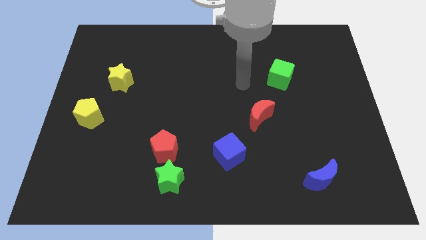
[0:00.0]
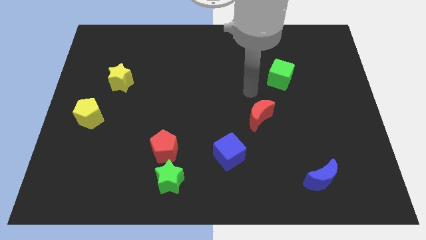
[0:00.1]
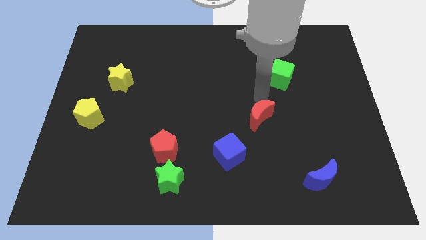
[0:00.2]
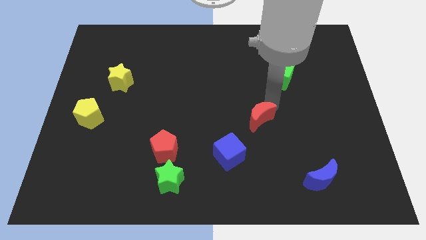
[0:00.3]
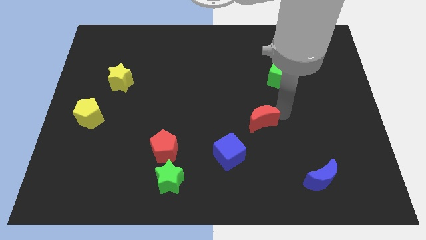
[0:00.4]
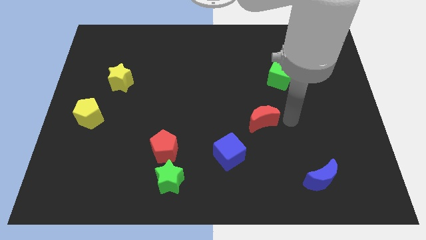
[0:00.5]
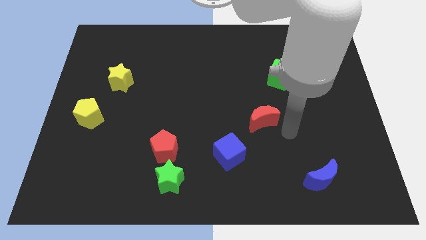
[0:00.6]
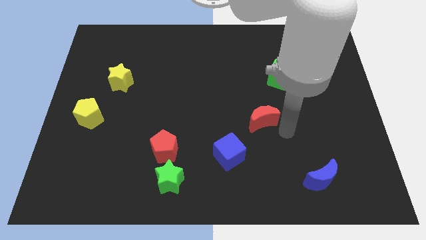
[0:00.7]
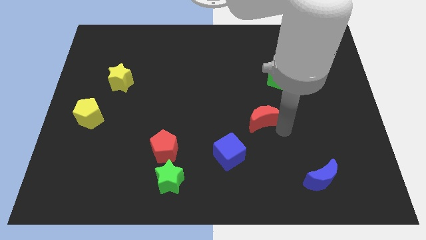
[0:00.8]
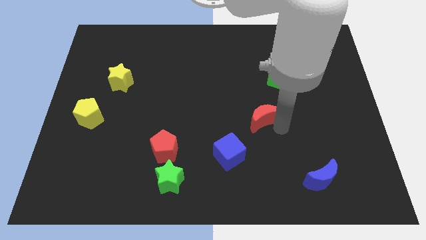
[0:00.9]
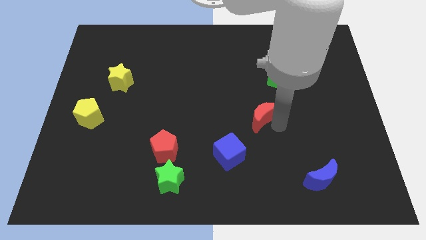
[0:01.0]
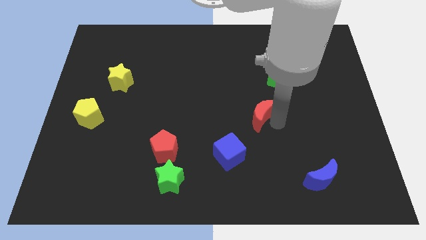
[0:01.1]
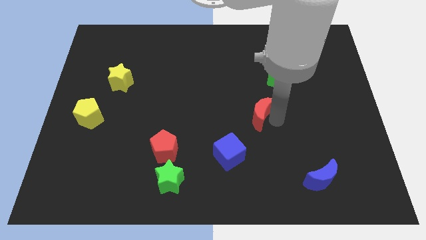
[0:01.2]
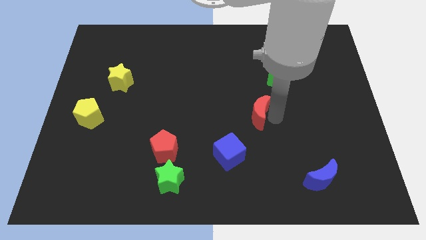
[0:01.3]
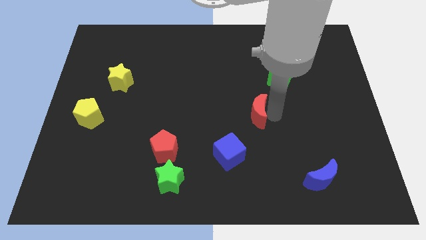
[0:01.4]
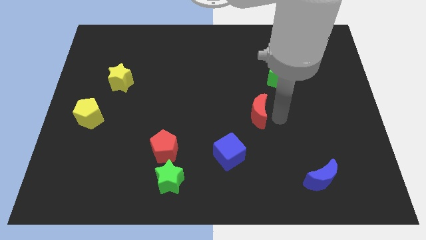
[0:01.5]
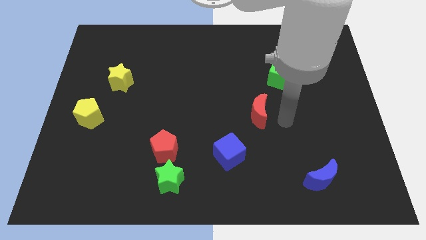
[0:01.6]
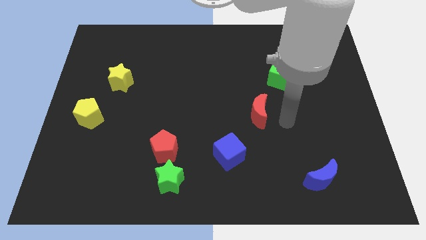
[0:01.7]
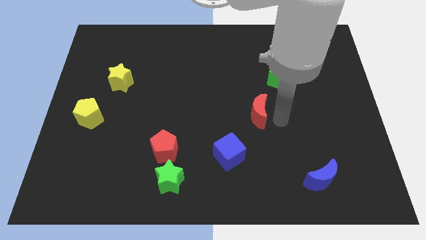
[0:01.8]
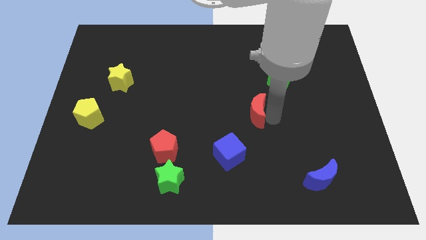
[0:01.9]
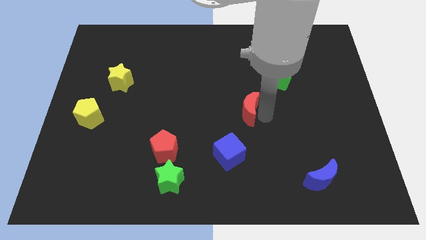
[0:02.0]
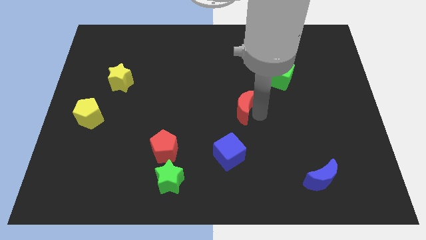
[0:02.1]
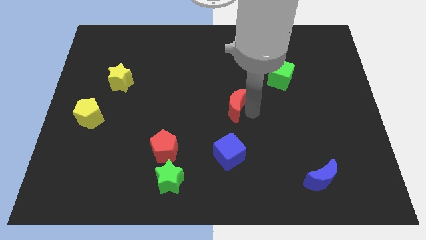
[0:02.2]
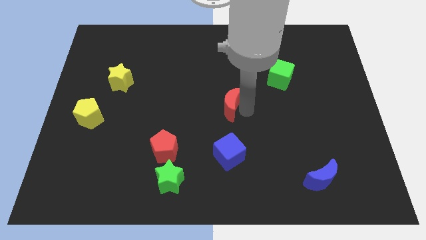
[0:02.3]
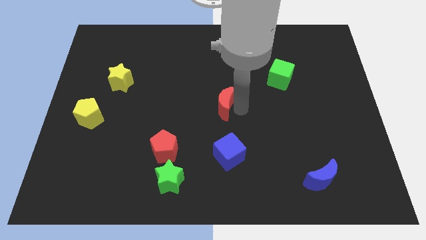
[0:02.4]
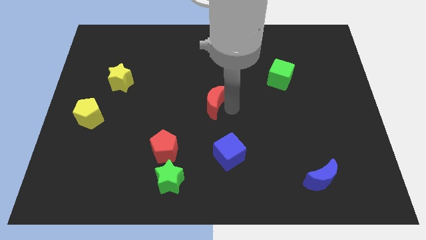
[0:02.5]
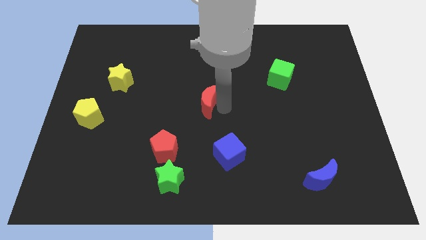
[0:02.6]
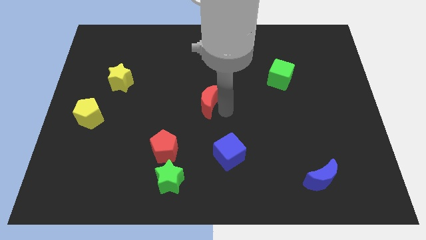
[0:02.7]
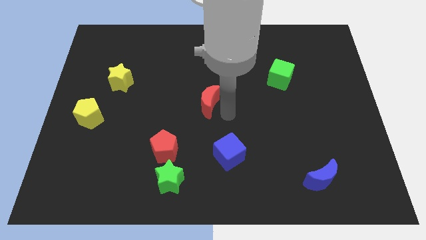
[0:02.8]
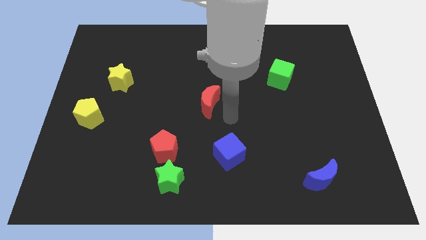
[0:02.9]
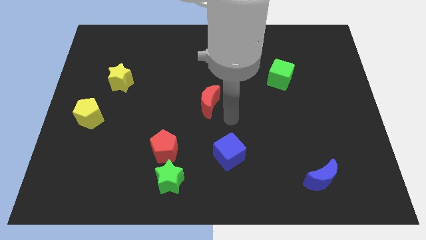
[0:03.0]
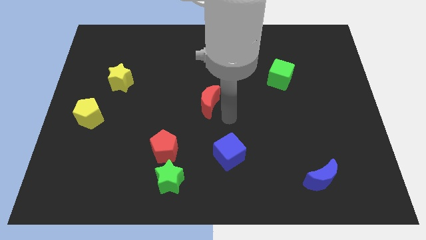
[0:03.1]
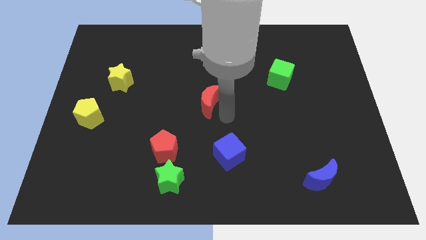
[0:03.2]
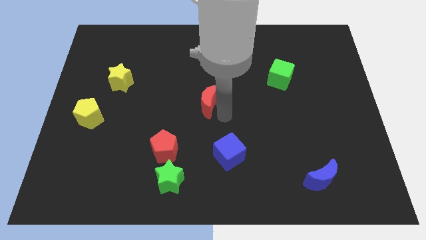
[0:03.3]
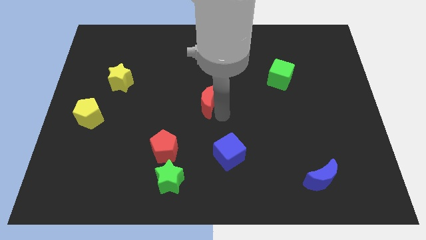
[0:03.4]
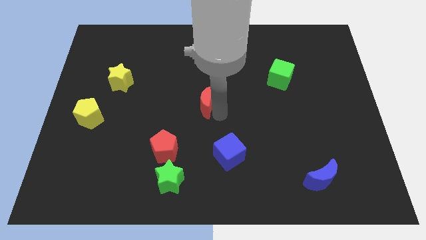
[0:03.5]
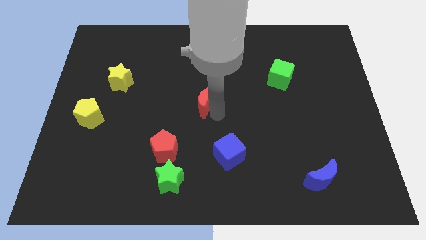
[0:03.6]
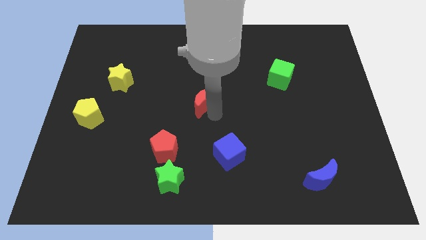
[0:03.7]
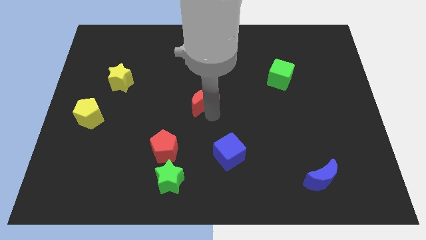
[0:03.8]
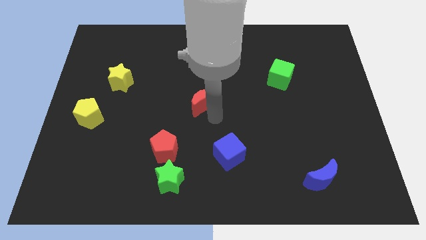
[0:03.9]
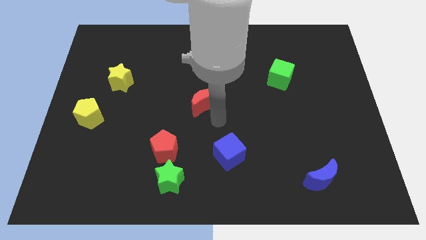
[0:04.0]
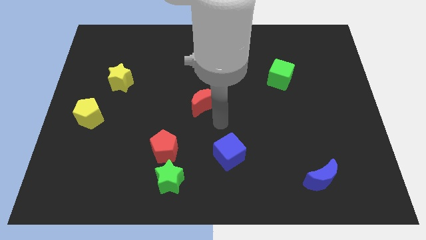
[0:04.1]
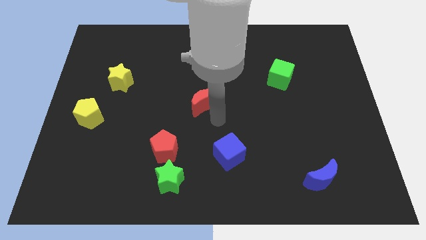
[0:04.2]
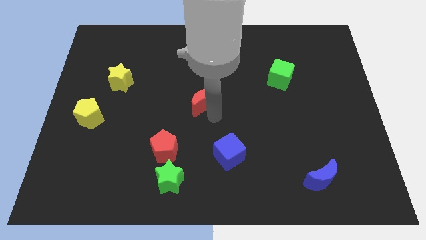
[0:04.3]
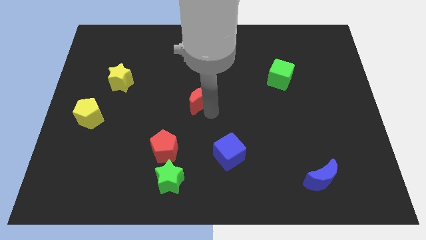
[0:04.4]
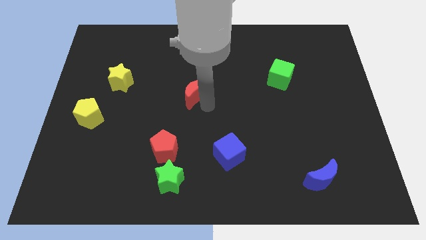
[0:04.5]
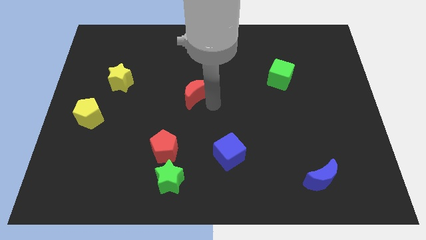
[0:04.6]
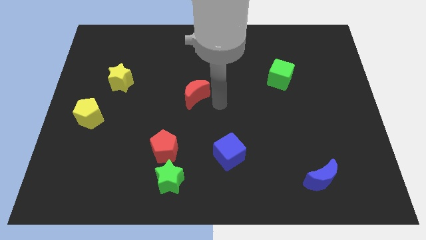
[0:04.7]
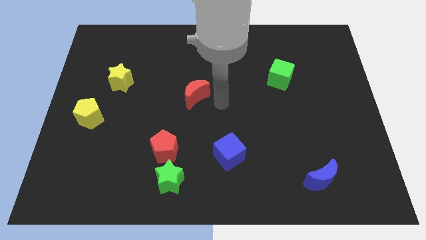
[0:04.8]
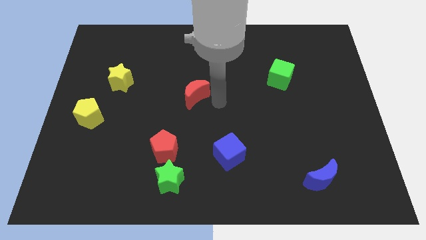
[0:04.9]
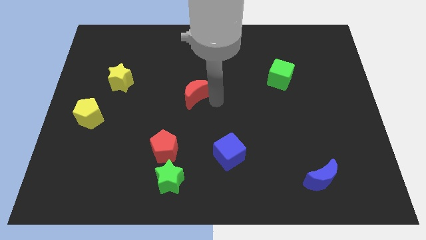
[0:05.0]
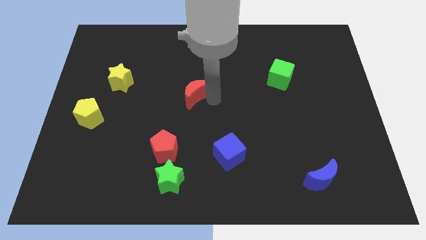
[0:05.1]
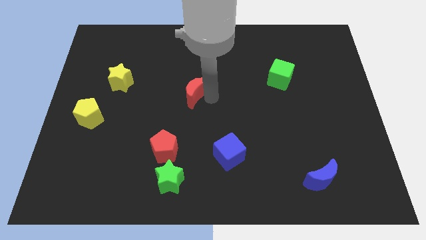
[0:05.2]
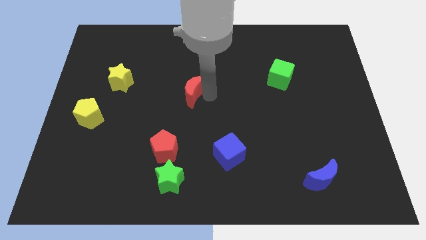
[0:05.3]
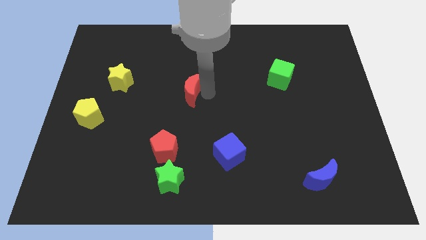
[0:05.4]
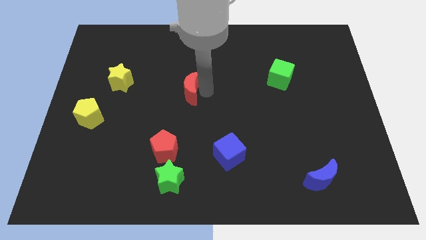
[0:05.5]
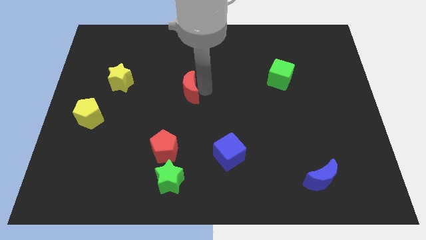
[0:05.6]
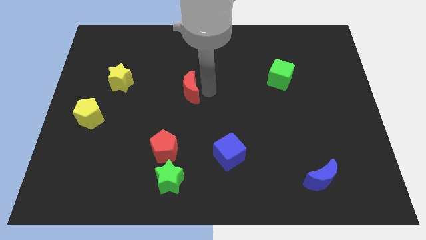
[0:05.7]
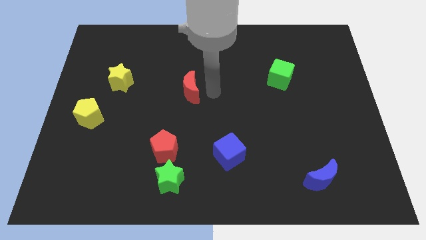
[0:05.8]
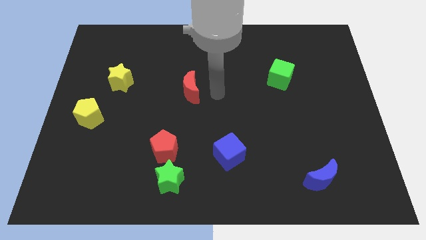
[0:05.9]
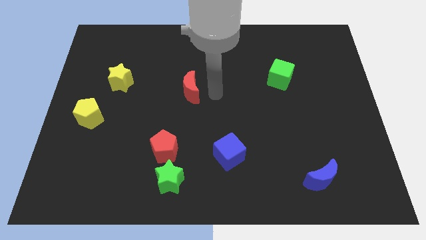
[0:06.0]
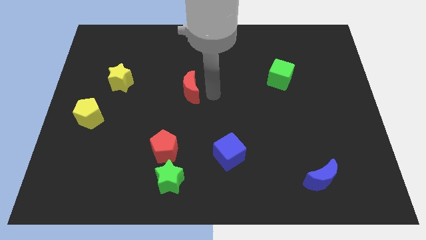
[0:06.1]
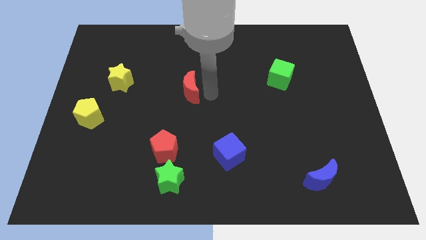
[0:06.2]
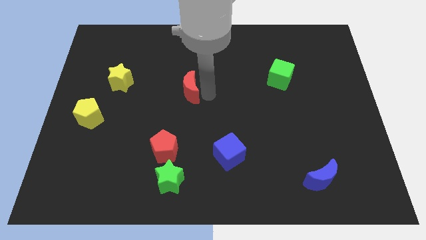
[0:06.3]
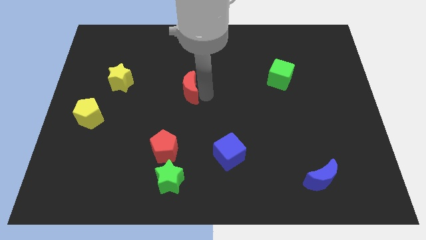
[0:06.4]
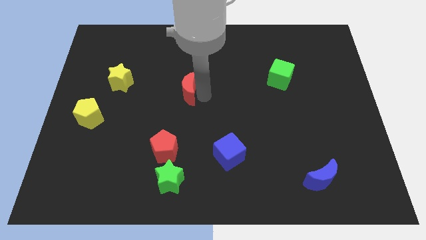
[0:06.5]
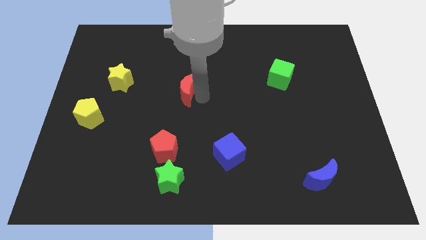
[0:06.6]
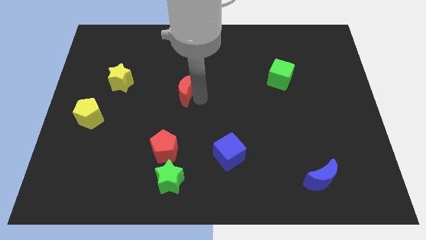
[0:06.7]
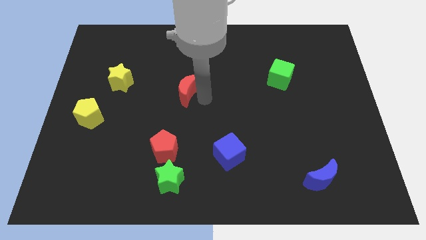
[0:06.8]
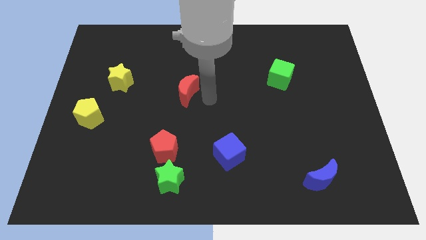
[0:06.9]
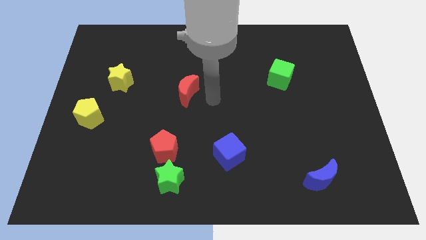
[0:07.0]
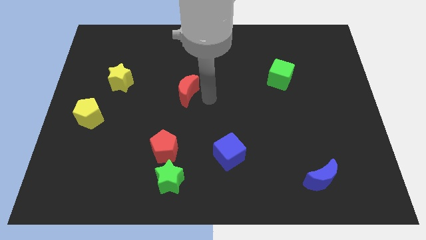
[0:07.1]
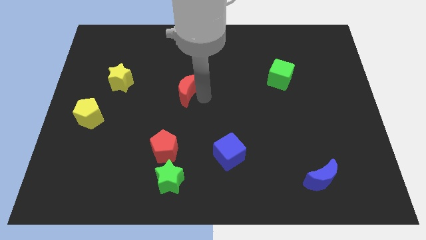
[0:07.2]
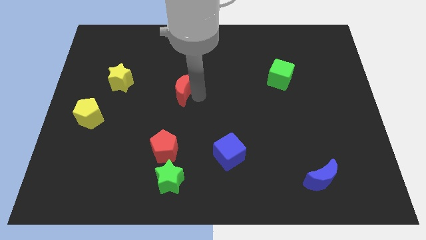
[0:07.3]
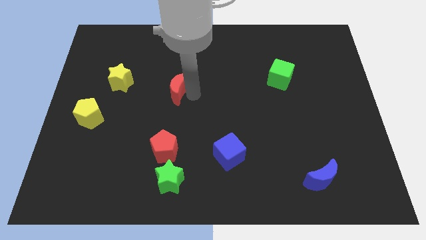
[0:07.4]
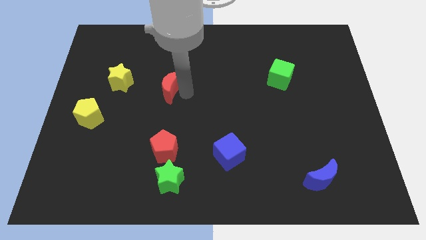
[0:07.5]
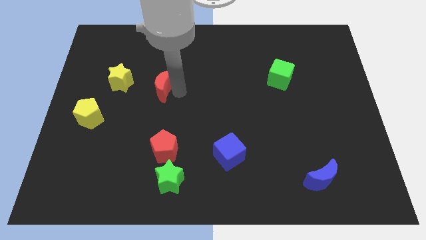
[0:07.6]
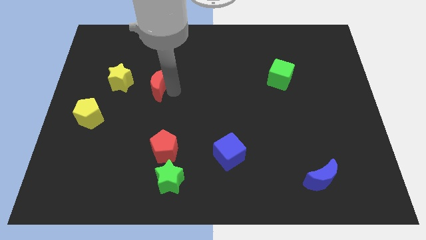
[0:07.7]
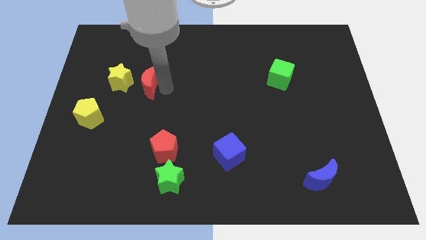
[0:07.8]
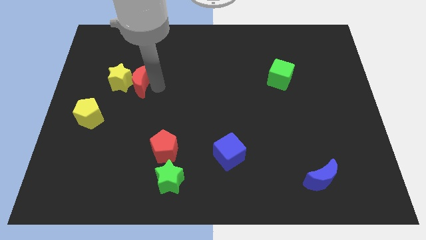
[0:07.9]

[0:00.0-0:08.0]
move the red moon next to the yellow star
